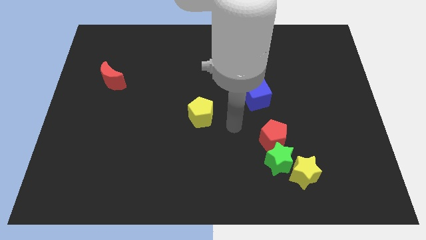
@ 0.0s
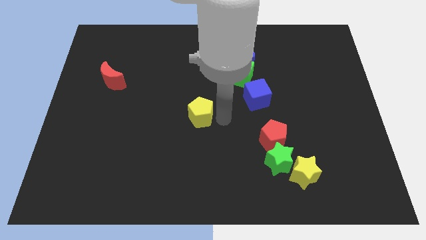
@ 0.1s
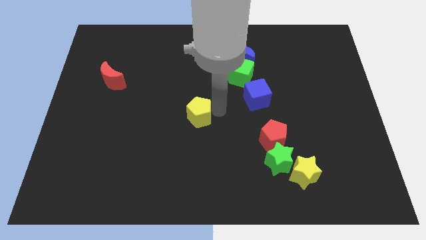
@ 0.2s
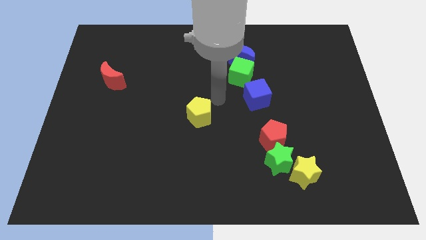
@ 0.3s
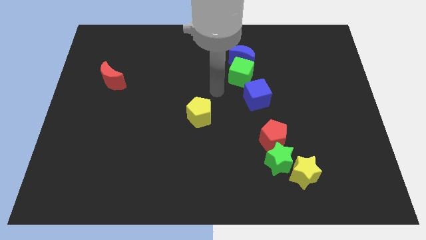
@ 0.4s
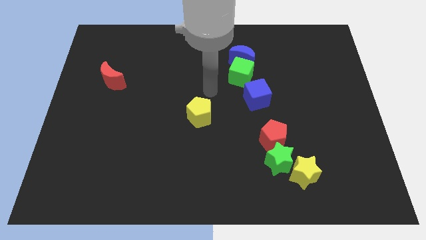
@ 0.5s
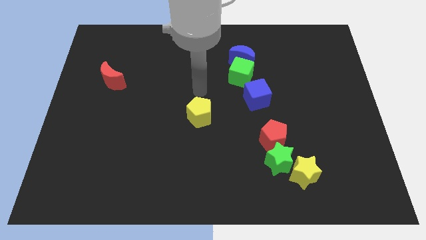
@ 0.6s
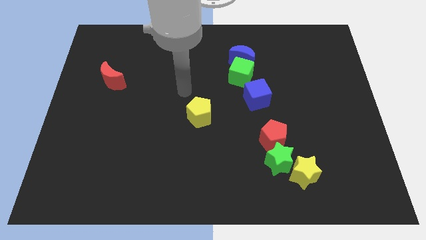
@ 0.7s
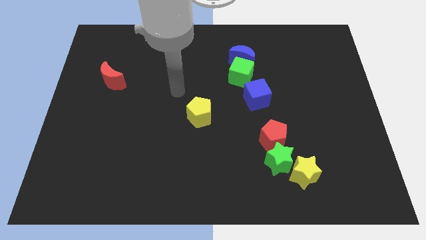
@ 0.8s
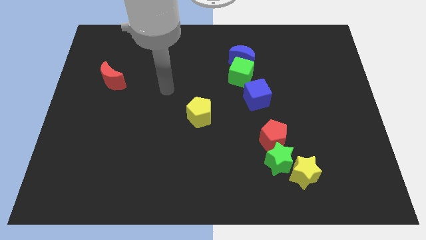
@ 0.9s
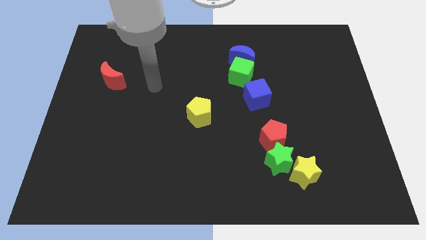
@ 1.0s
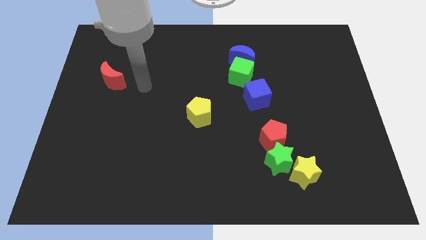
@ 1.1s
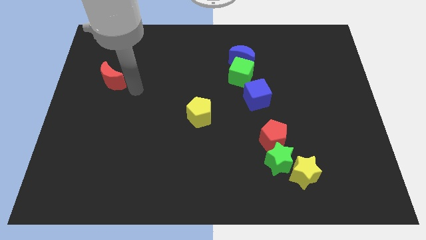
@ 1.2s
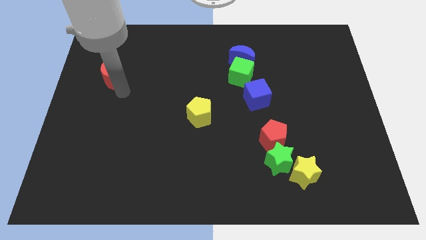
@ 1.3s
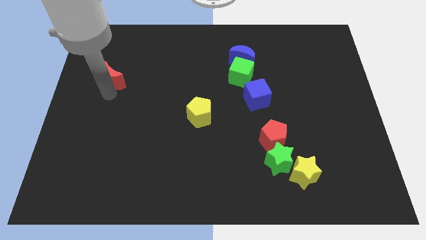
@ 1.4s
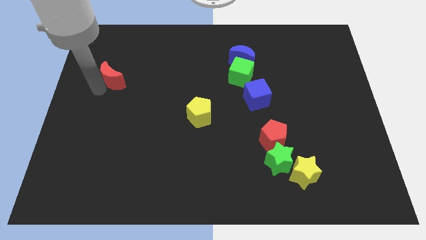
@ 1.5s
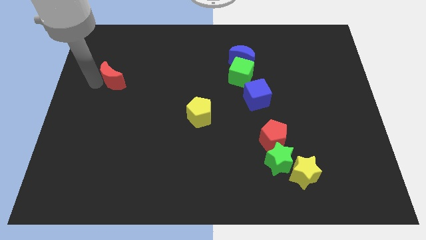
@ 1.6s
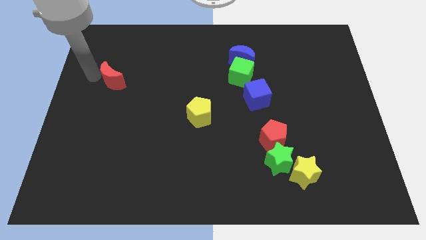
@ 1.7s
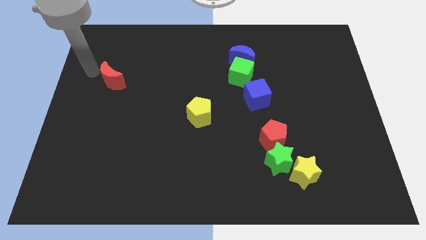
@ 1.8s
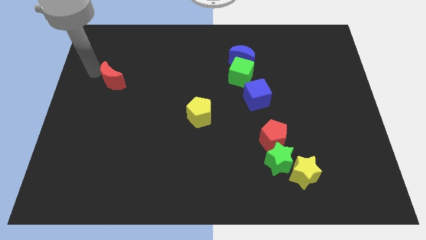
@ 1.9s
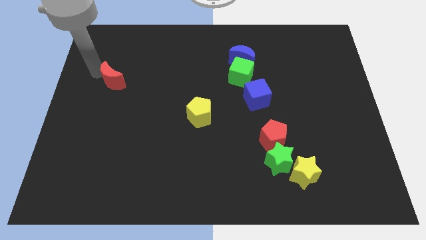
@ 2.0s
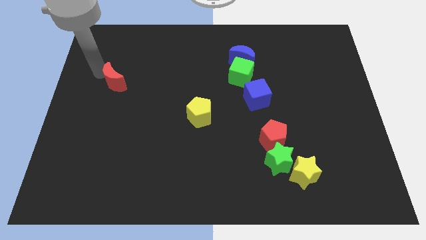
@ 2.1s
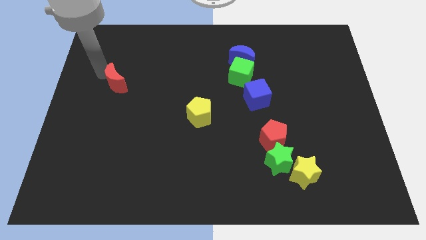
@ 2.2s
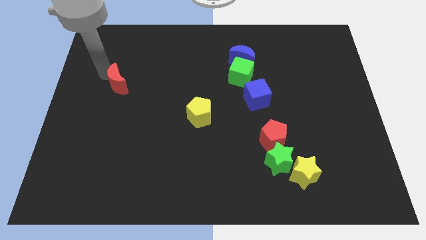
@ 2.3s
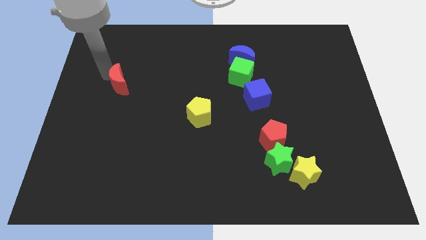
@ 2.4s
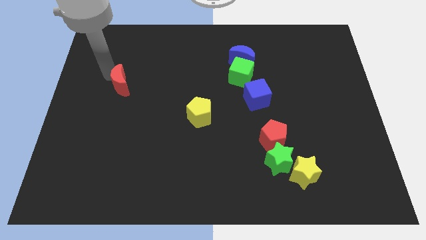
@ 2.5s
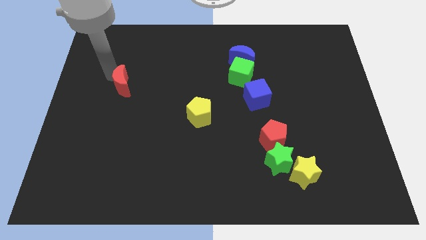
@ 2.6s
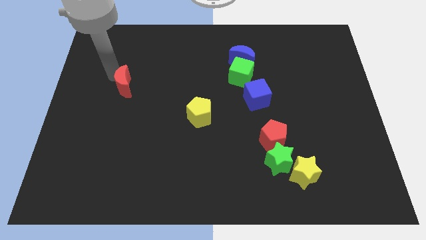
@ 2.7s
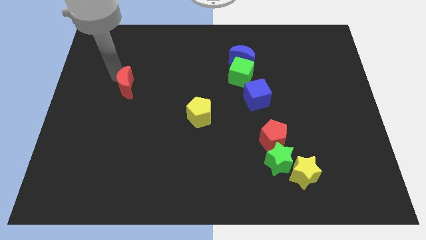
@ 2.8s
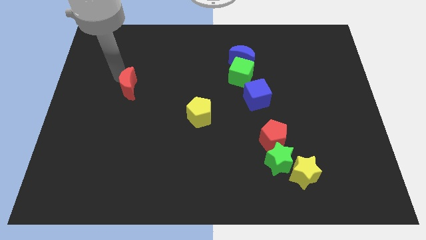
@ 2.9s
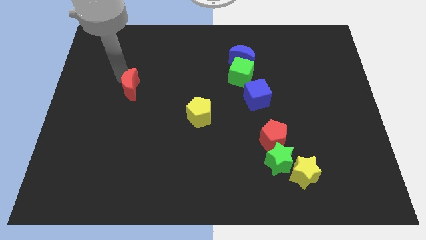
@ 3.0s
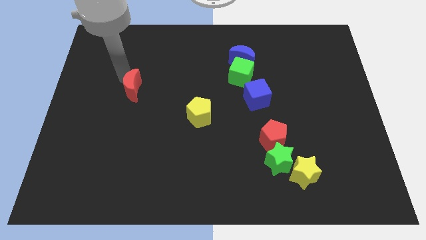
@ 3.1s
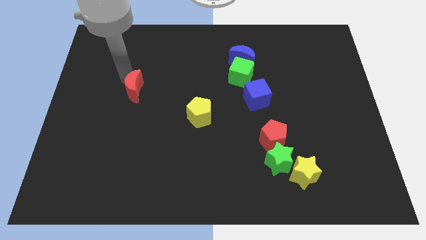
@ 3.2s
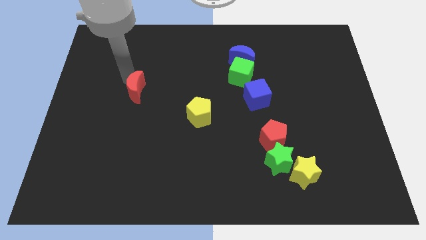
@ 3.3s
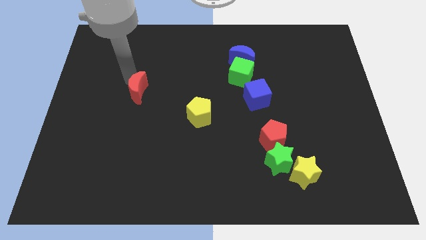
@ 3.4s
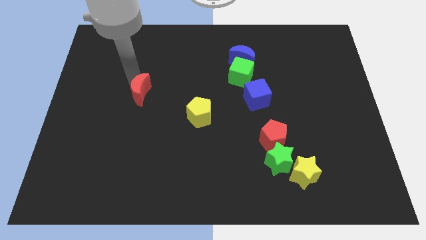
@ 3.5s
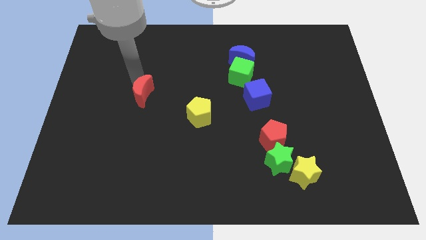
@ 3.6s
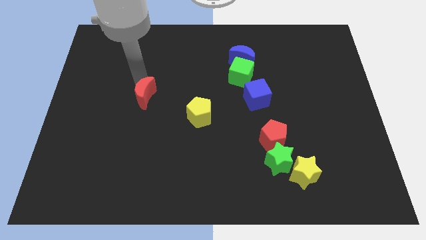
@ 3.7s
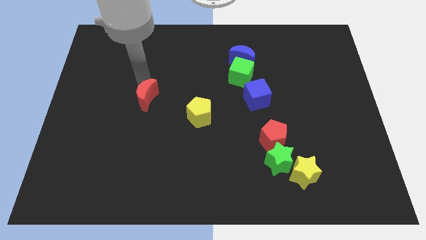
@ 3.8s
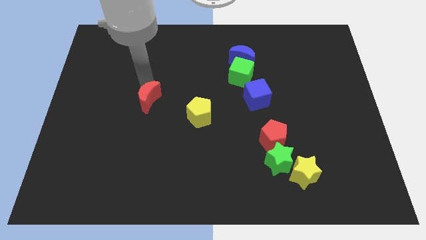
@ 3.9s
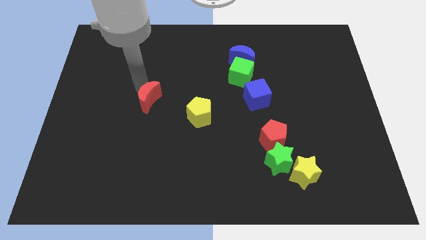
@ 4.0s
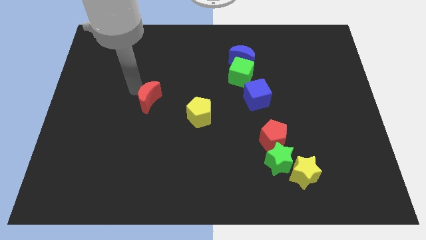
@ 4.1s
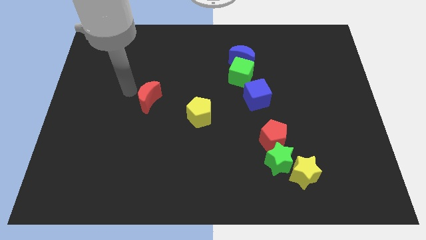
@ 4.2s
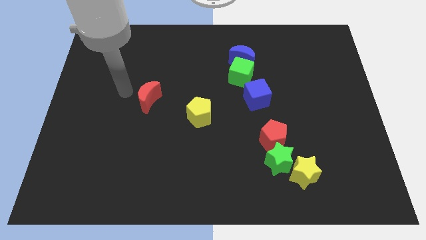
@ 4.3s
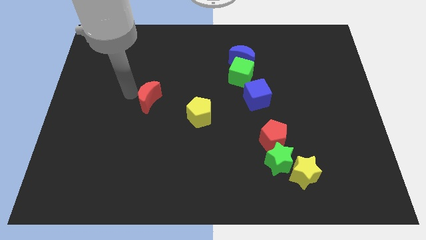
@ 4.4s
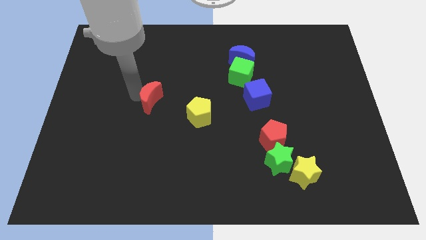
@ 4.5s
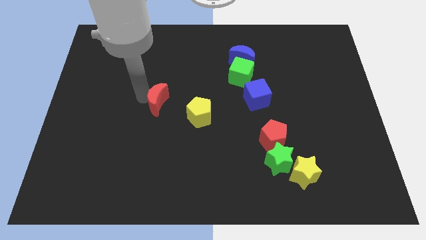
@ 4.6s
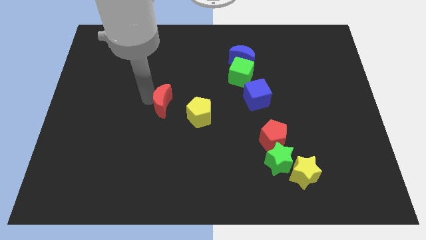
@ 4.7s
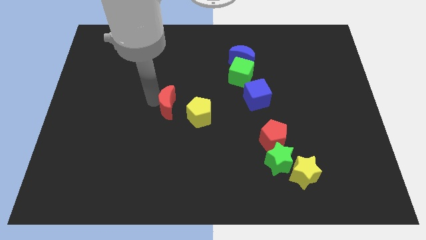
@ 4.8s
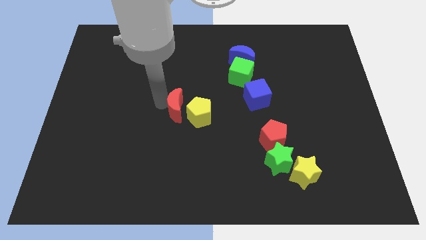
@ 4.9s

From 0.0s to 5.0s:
put the red moon to the yellow pentagon

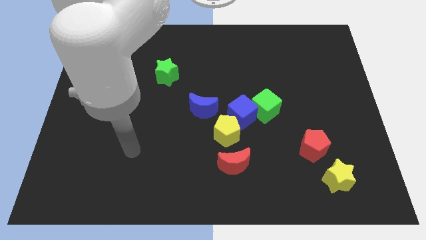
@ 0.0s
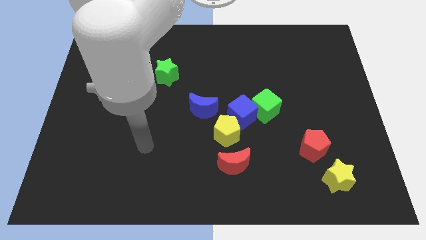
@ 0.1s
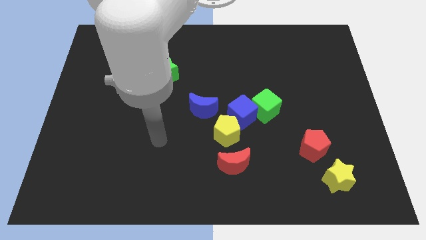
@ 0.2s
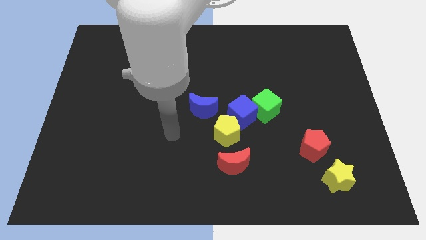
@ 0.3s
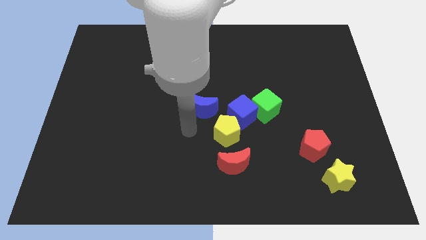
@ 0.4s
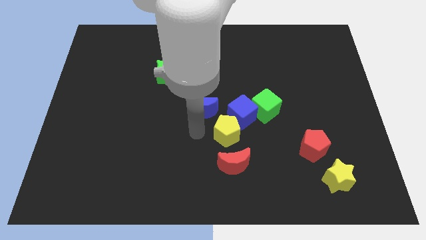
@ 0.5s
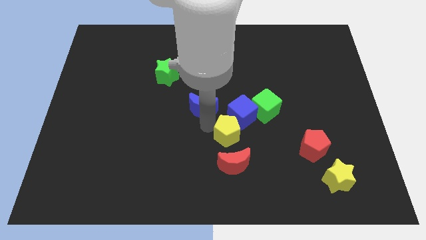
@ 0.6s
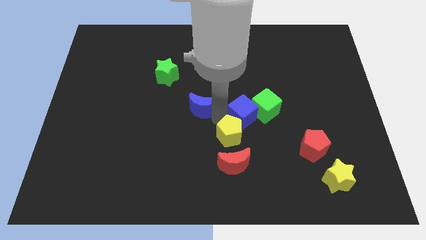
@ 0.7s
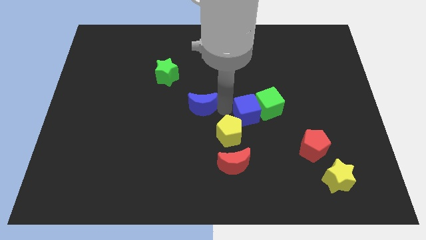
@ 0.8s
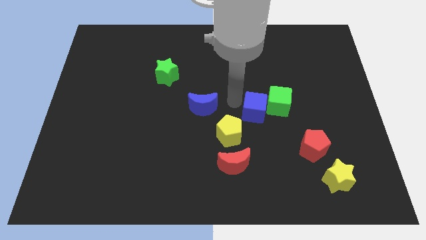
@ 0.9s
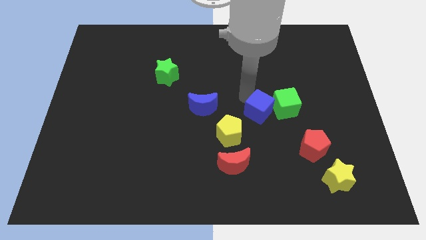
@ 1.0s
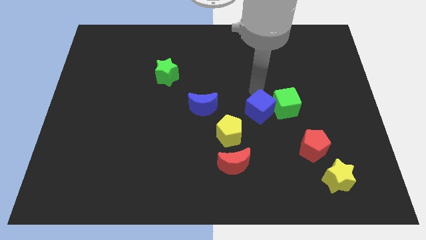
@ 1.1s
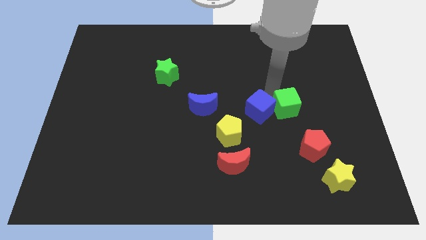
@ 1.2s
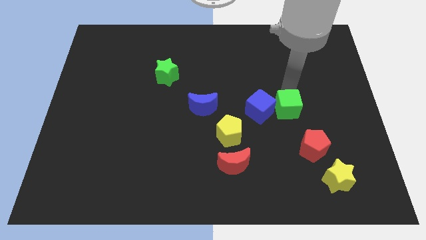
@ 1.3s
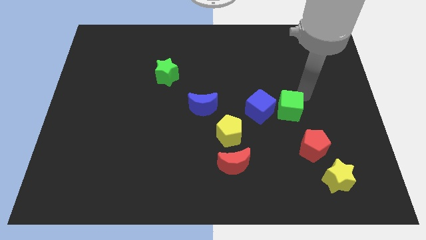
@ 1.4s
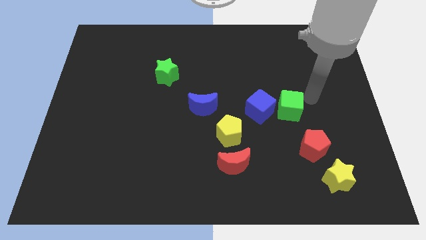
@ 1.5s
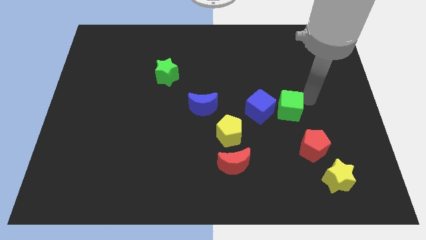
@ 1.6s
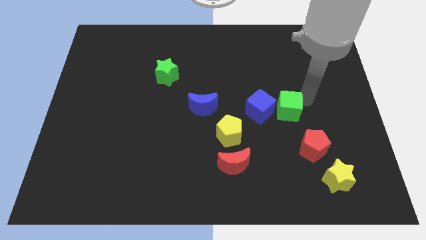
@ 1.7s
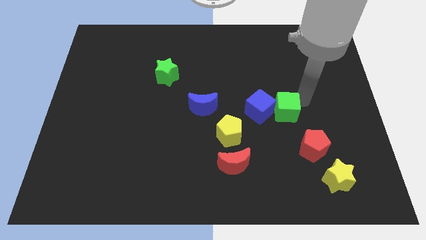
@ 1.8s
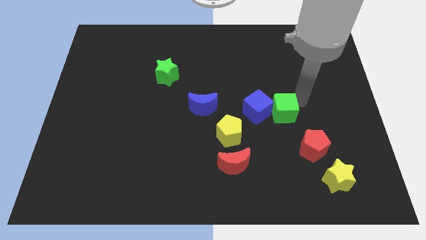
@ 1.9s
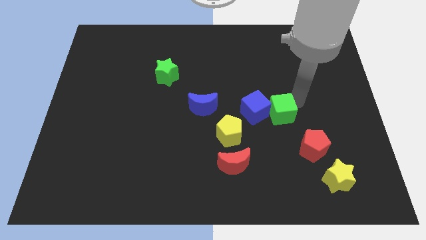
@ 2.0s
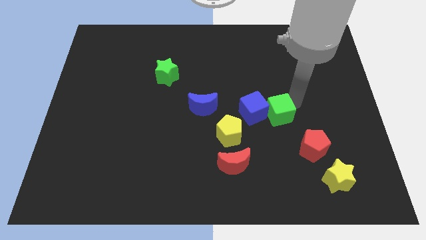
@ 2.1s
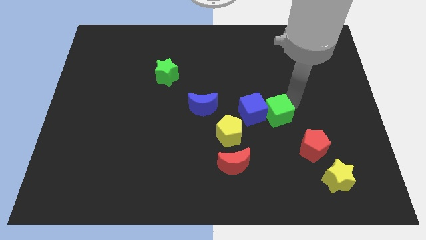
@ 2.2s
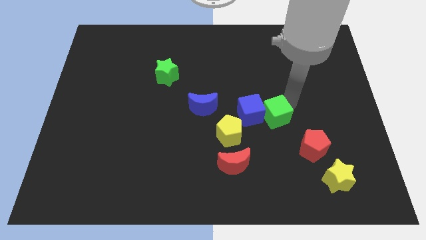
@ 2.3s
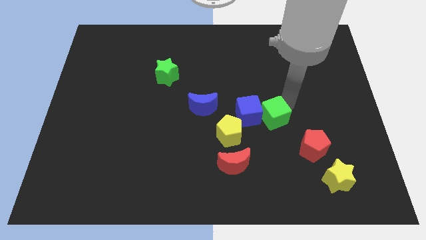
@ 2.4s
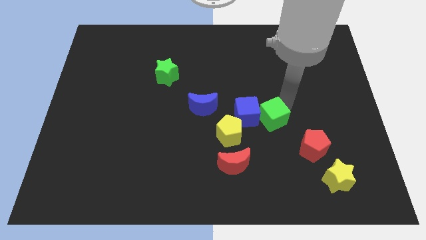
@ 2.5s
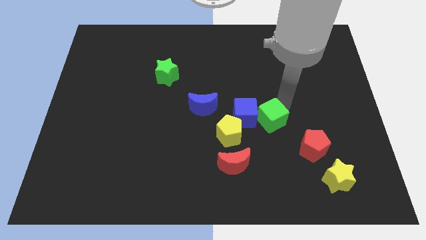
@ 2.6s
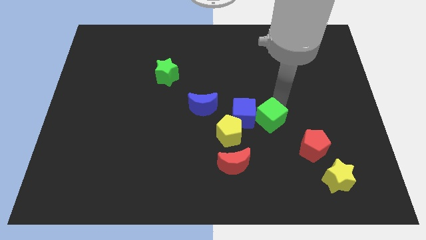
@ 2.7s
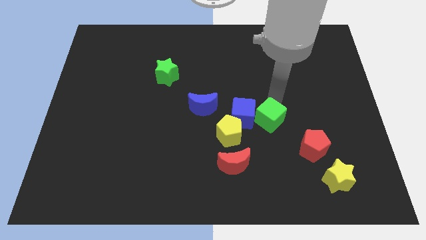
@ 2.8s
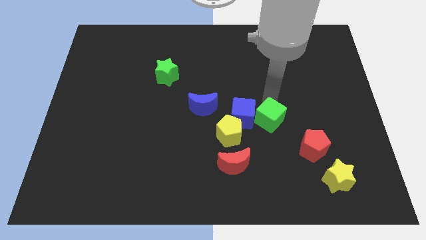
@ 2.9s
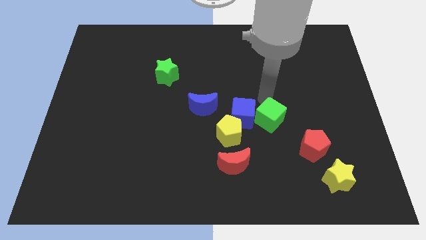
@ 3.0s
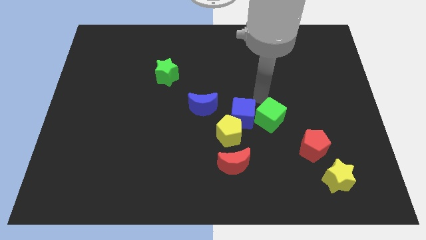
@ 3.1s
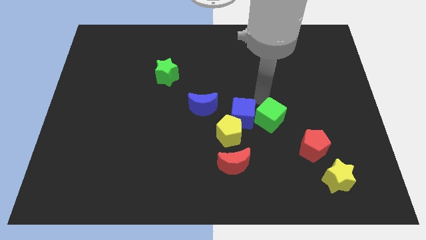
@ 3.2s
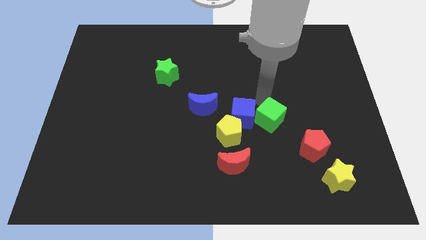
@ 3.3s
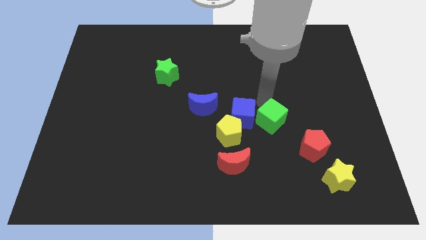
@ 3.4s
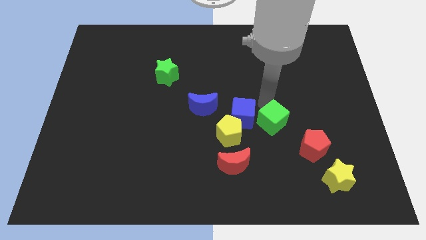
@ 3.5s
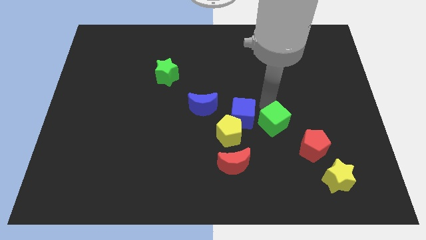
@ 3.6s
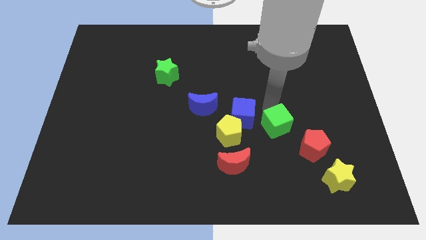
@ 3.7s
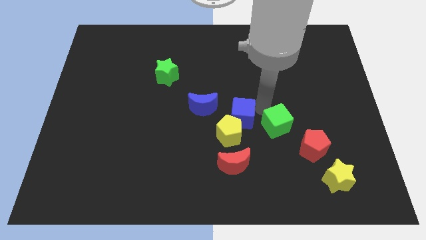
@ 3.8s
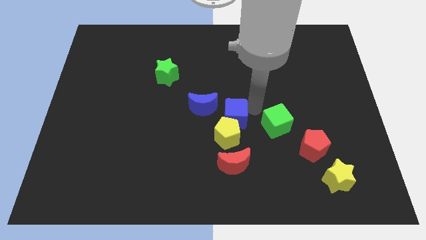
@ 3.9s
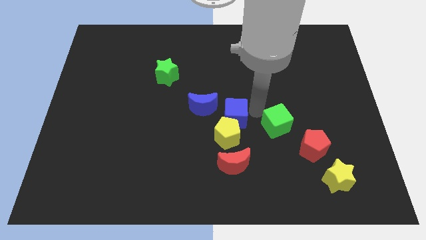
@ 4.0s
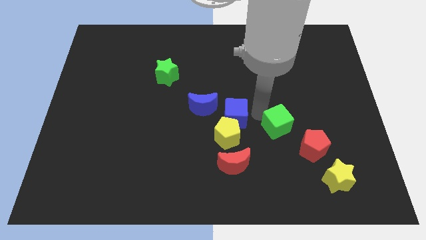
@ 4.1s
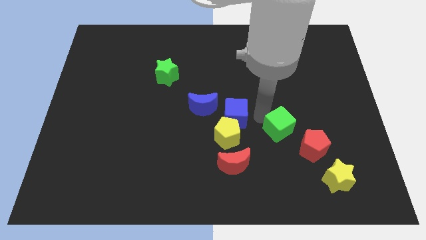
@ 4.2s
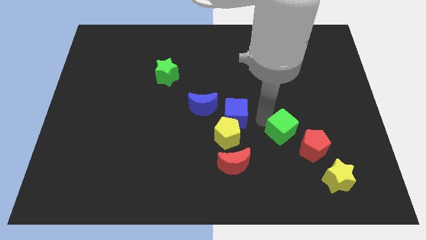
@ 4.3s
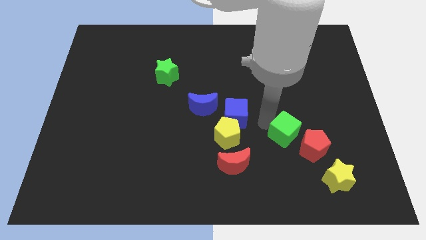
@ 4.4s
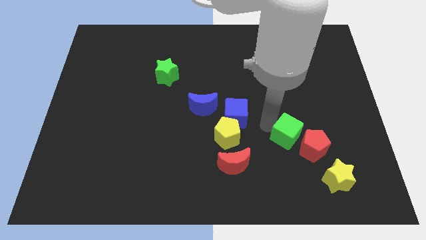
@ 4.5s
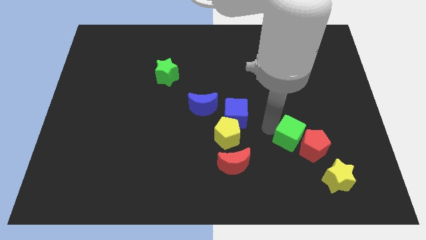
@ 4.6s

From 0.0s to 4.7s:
slide the green cube towards the red pentagon
